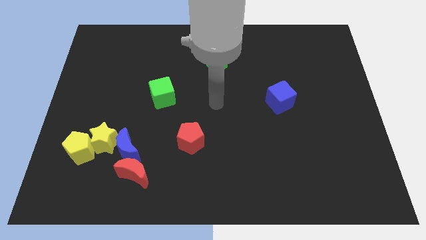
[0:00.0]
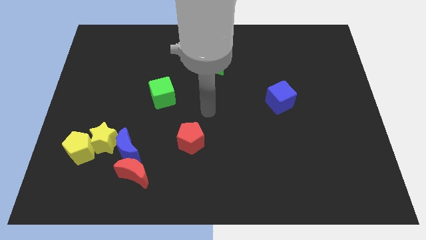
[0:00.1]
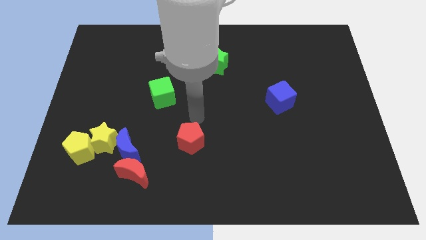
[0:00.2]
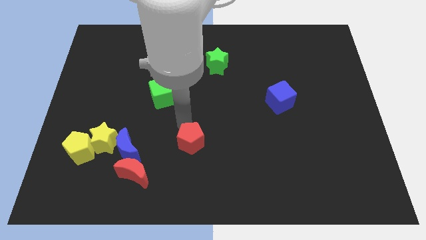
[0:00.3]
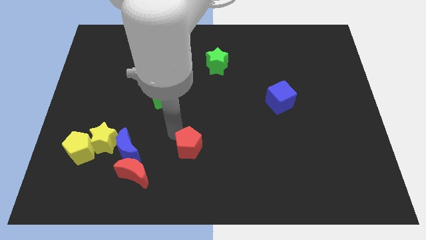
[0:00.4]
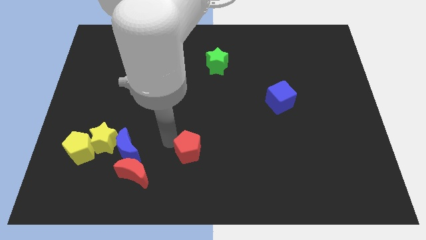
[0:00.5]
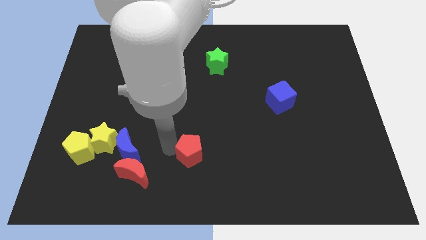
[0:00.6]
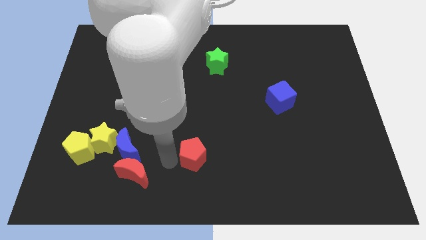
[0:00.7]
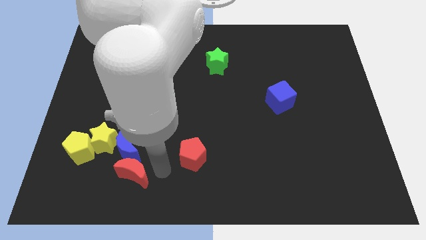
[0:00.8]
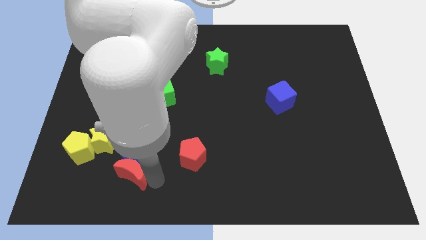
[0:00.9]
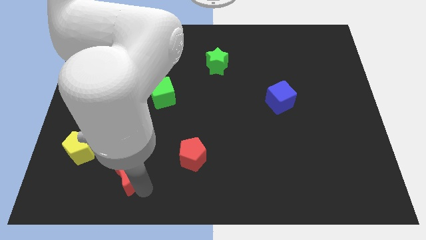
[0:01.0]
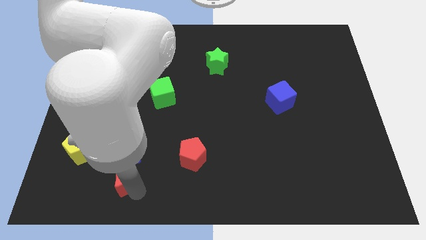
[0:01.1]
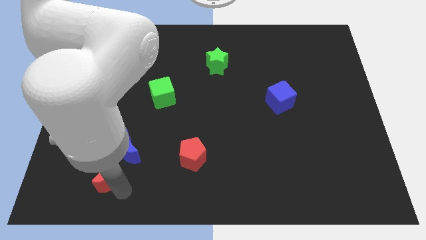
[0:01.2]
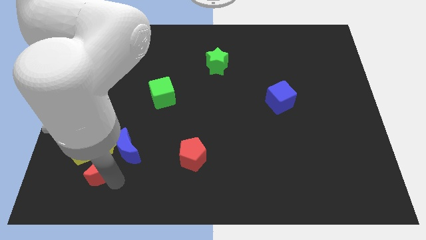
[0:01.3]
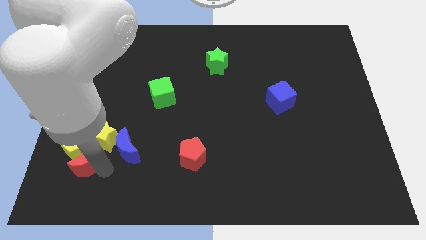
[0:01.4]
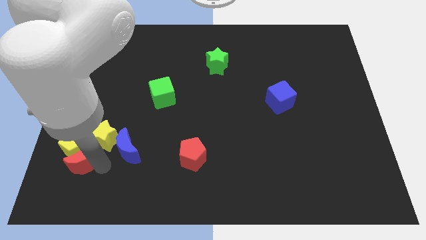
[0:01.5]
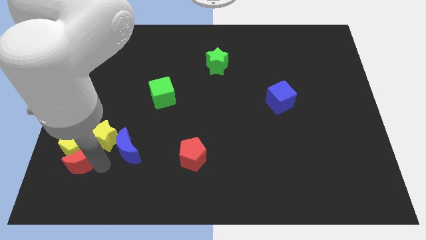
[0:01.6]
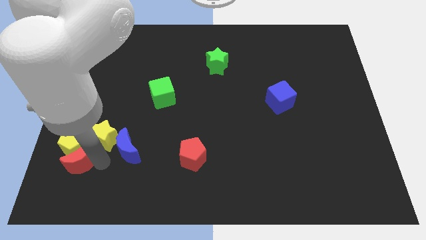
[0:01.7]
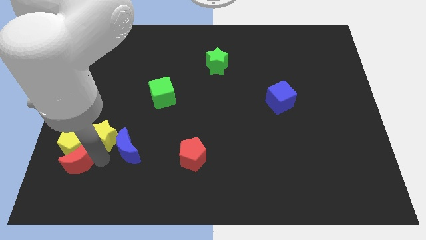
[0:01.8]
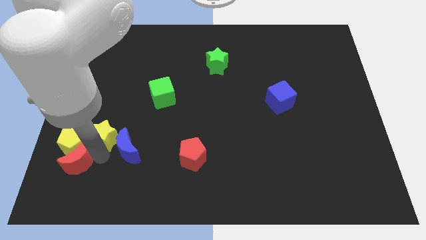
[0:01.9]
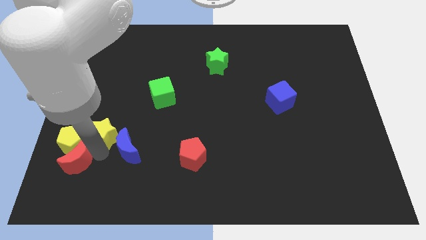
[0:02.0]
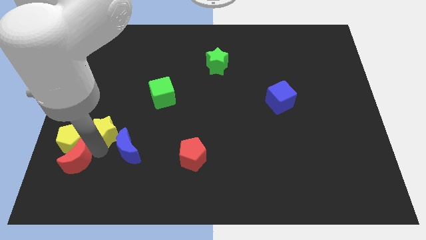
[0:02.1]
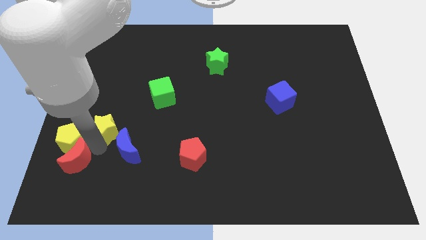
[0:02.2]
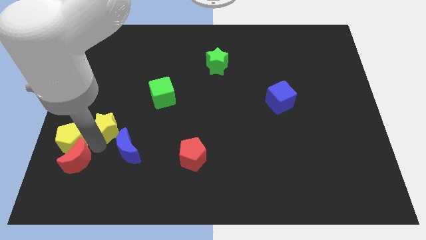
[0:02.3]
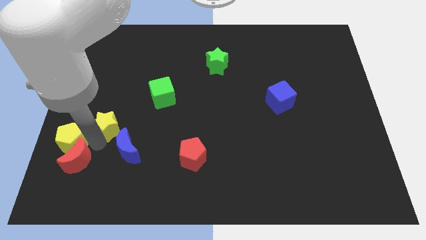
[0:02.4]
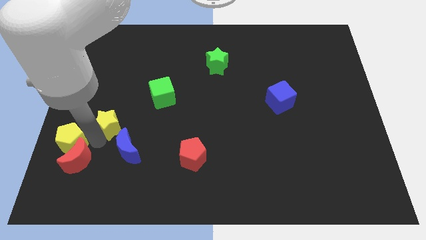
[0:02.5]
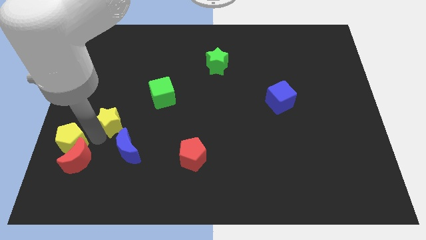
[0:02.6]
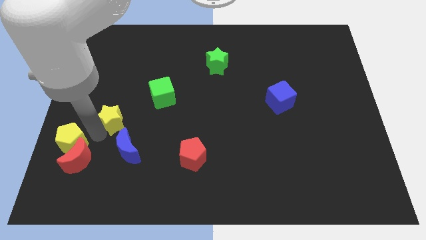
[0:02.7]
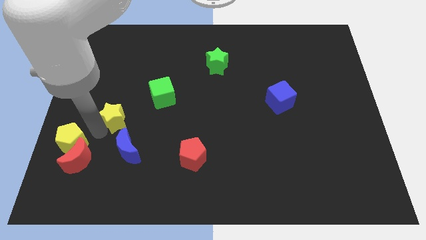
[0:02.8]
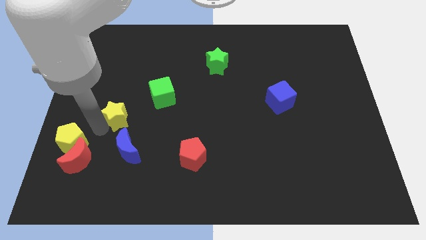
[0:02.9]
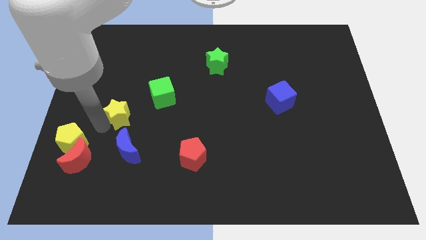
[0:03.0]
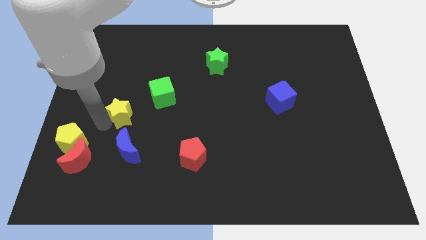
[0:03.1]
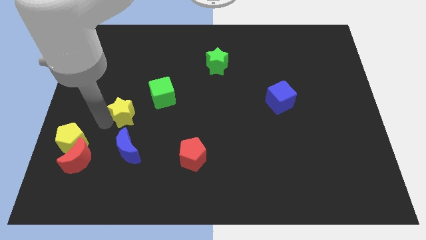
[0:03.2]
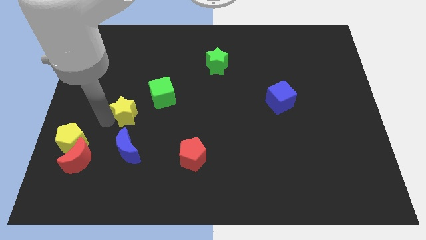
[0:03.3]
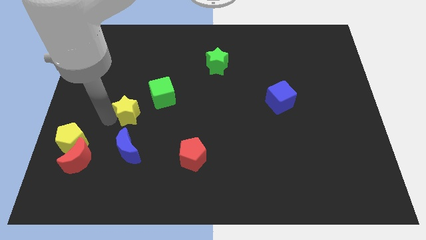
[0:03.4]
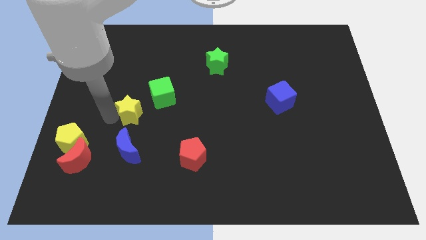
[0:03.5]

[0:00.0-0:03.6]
separate the yellow star from the blue moon and yellow pentagon

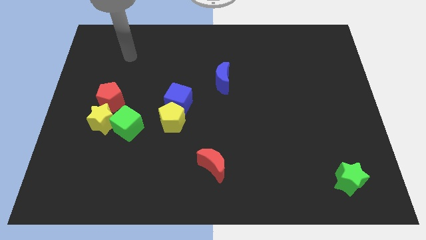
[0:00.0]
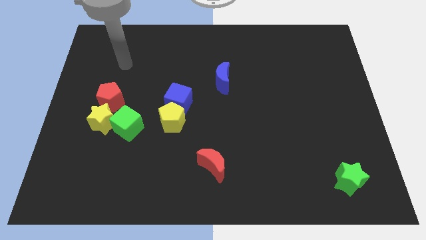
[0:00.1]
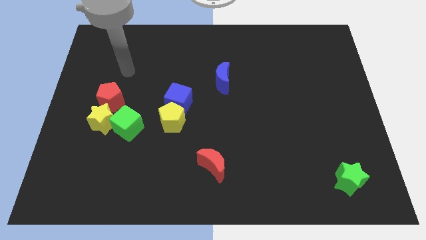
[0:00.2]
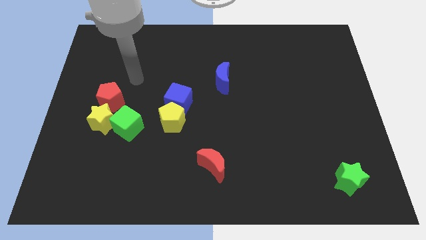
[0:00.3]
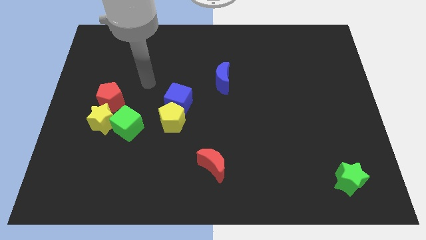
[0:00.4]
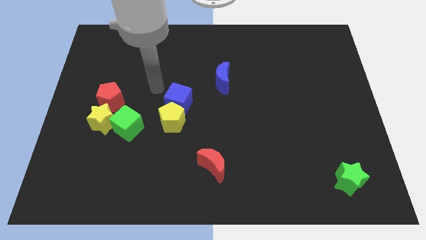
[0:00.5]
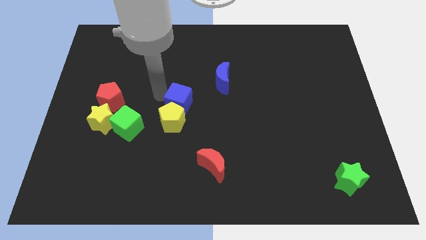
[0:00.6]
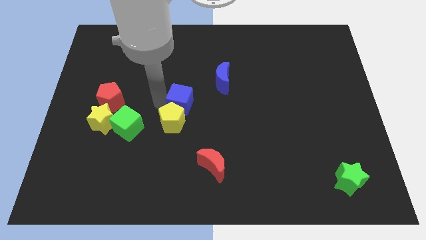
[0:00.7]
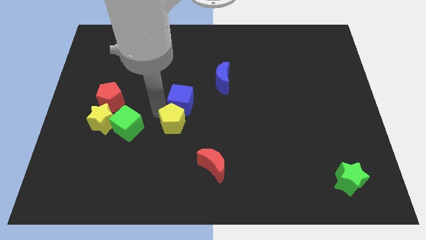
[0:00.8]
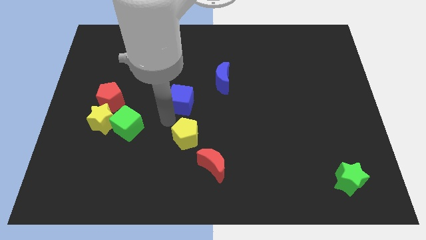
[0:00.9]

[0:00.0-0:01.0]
move the blue cube away from the yellow pentagon

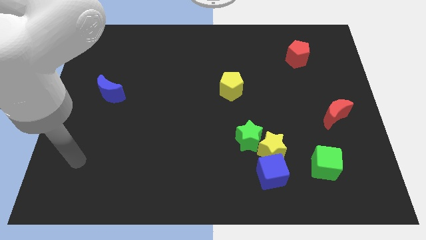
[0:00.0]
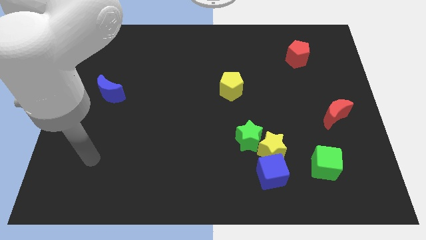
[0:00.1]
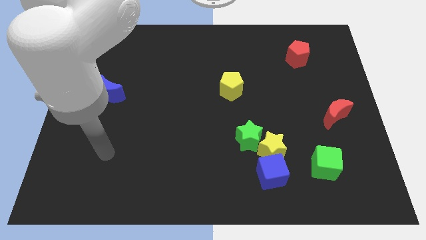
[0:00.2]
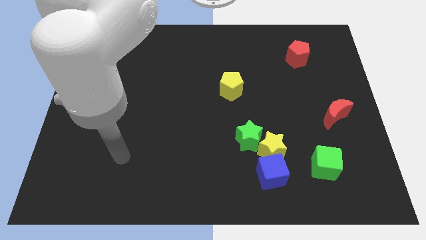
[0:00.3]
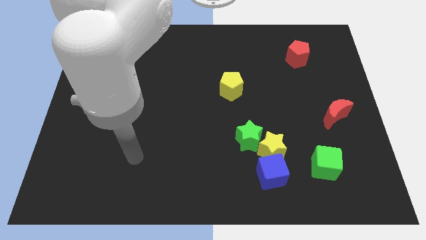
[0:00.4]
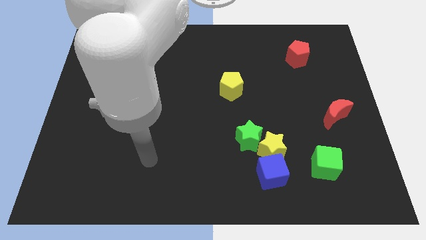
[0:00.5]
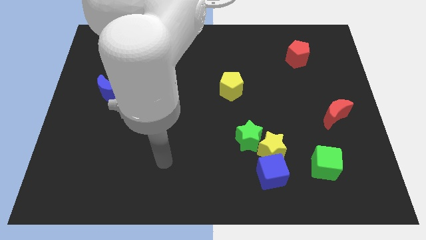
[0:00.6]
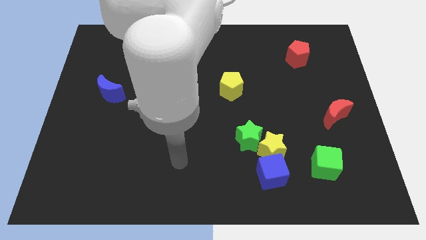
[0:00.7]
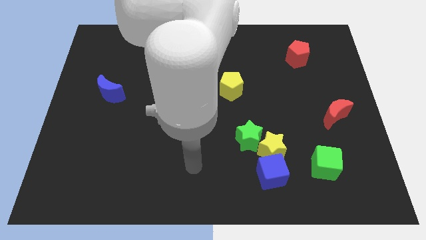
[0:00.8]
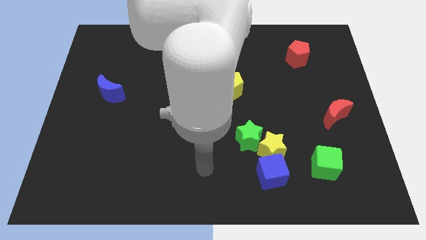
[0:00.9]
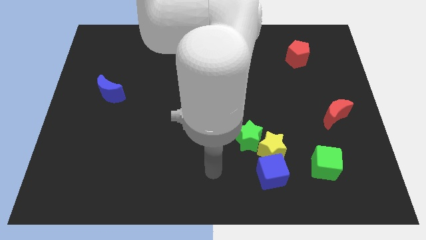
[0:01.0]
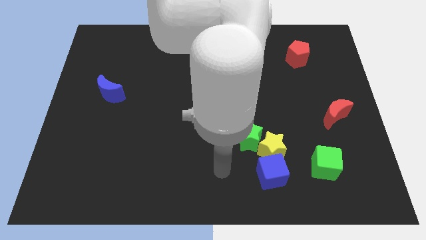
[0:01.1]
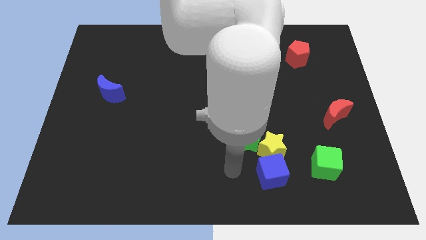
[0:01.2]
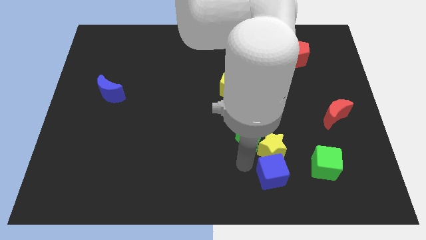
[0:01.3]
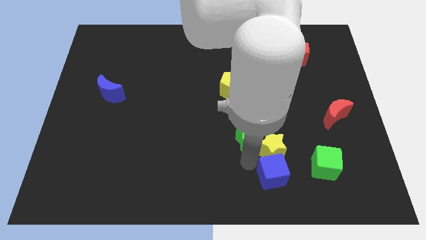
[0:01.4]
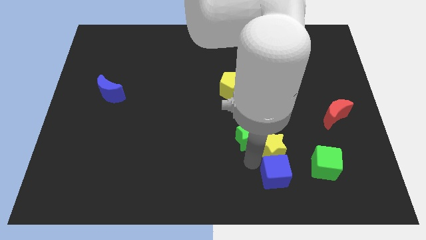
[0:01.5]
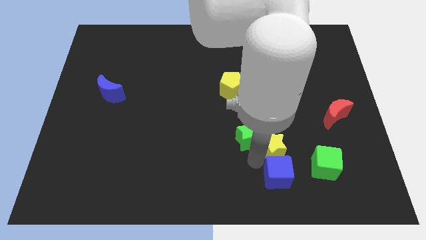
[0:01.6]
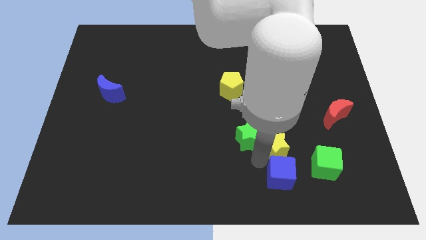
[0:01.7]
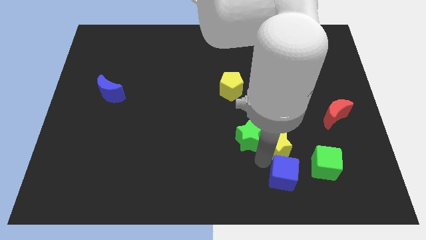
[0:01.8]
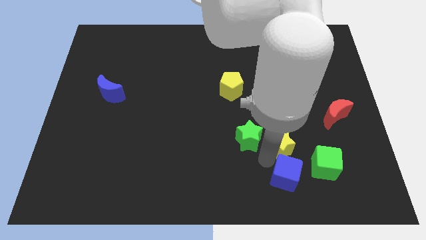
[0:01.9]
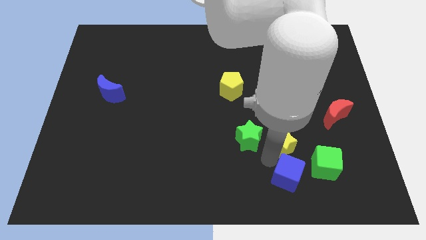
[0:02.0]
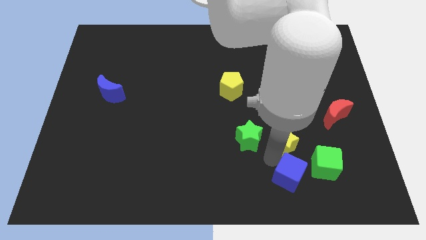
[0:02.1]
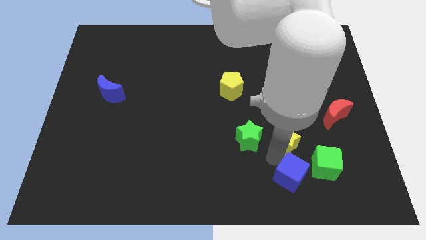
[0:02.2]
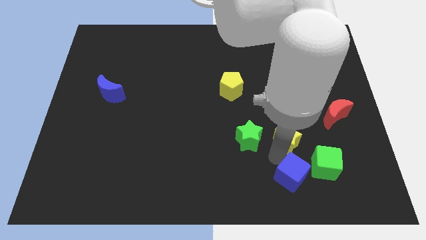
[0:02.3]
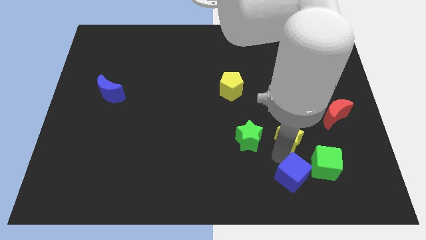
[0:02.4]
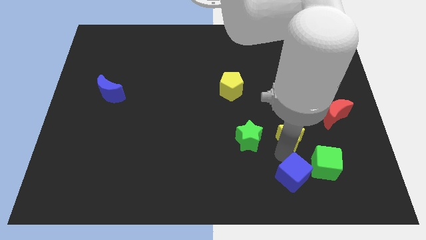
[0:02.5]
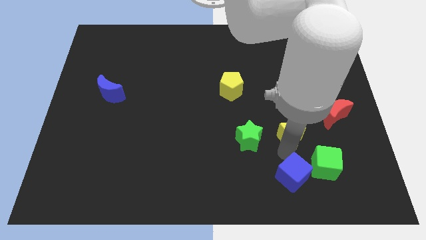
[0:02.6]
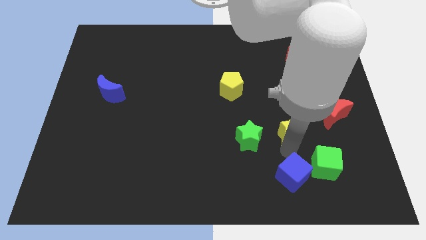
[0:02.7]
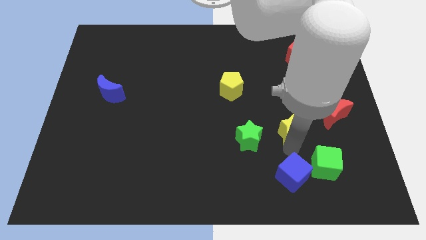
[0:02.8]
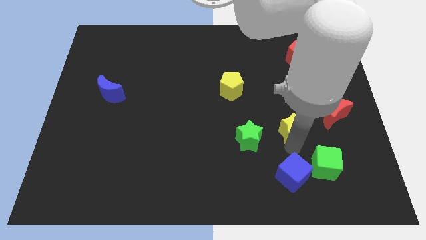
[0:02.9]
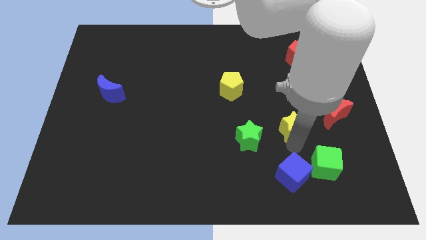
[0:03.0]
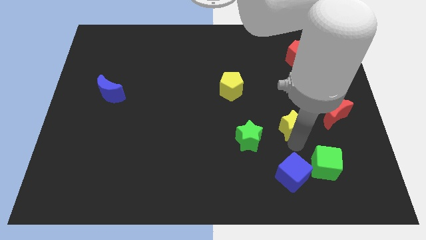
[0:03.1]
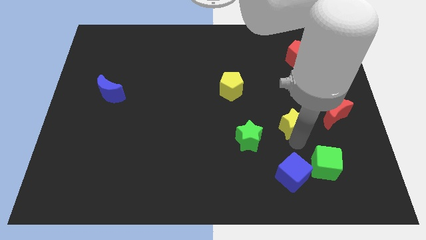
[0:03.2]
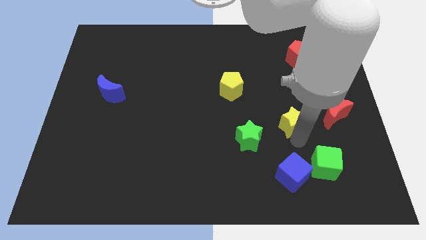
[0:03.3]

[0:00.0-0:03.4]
move the yellow star away from the blue cube and green star

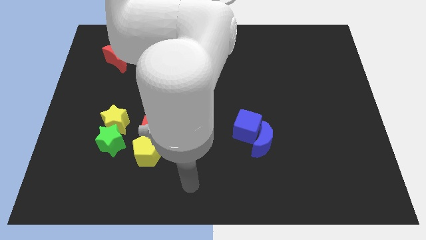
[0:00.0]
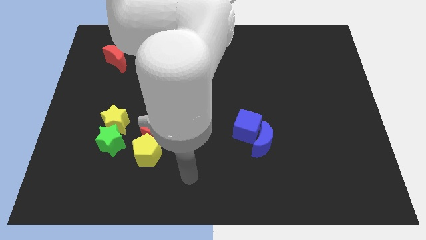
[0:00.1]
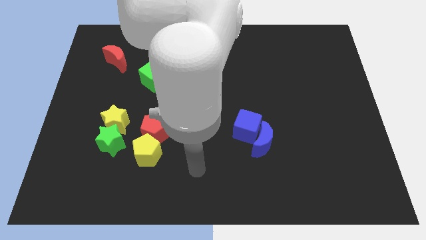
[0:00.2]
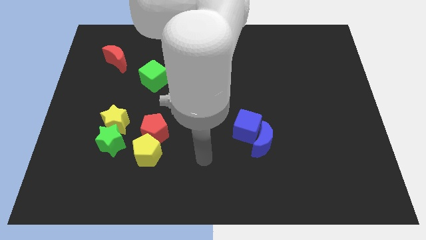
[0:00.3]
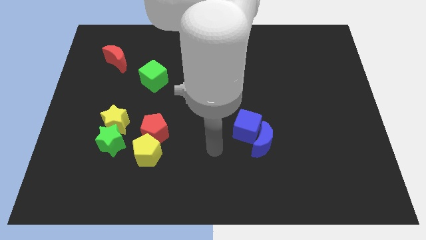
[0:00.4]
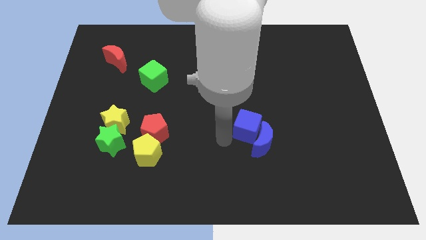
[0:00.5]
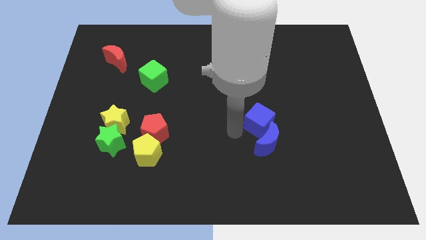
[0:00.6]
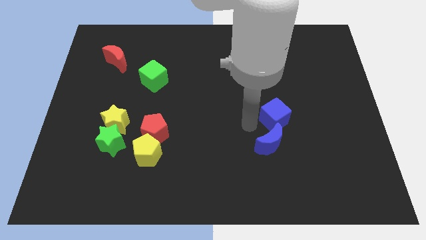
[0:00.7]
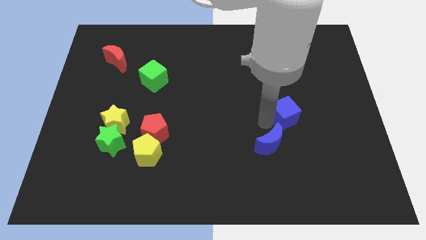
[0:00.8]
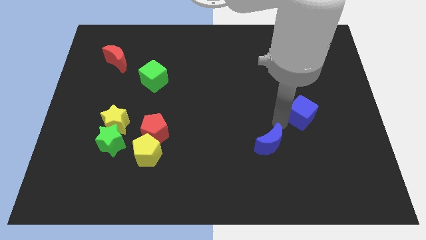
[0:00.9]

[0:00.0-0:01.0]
pull the blue moon apart from the blue cube

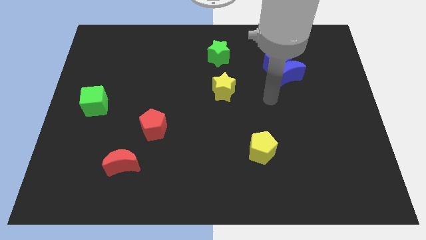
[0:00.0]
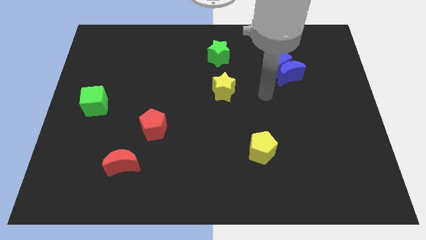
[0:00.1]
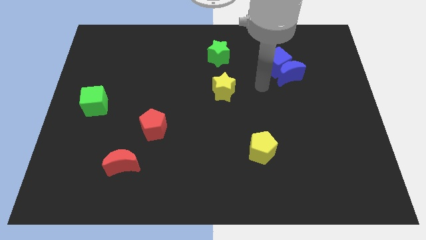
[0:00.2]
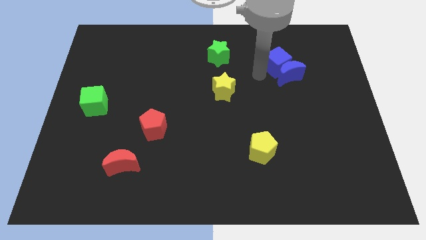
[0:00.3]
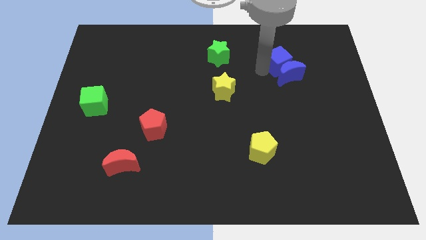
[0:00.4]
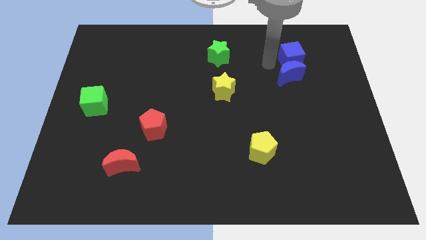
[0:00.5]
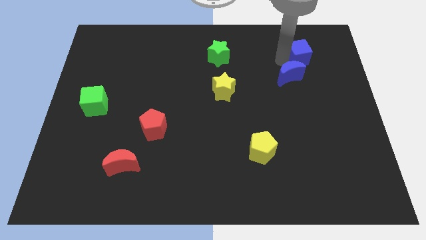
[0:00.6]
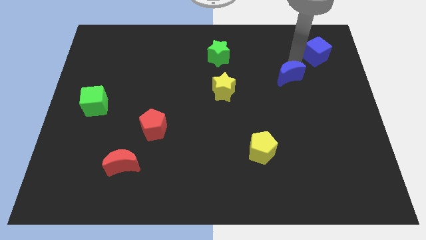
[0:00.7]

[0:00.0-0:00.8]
separate the blue moon from the blue cube
